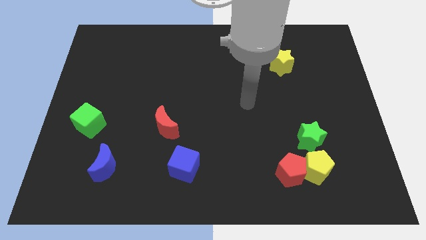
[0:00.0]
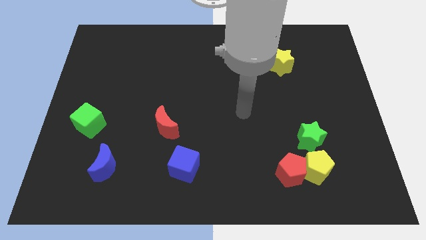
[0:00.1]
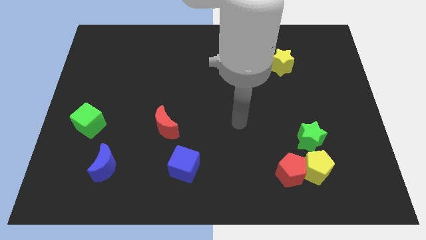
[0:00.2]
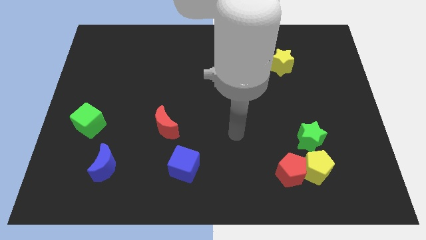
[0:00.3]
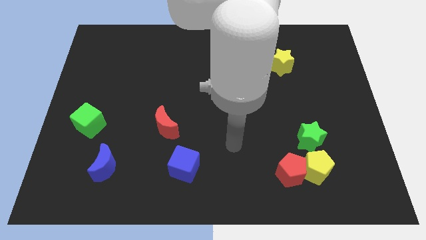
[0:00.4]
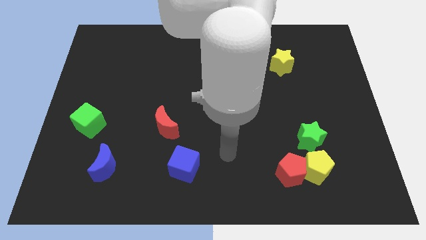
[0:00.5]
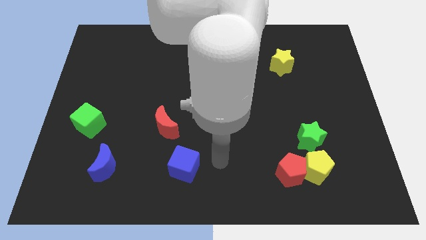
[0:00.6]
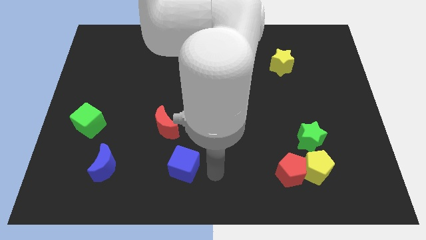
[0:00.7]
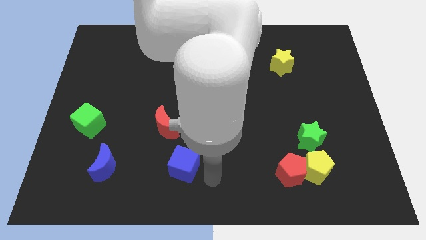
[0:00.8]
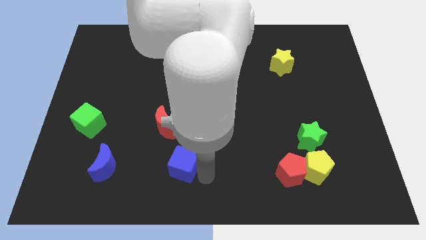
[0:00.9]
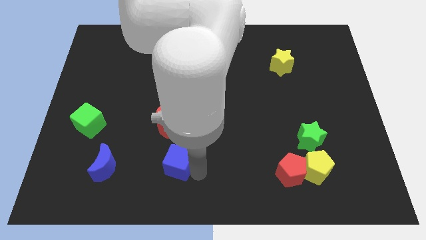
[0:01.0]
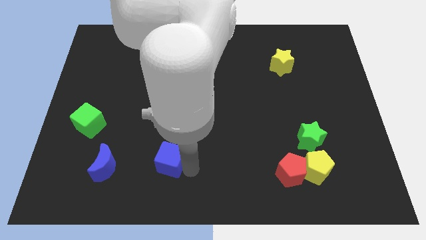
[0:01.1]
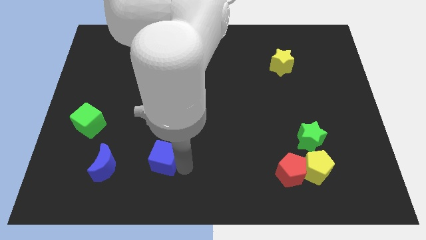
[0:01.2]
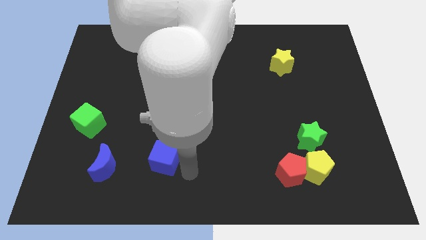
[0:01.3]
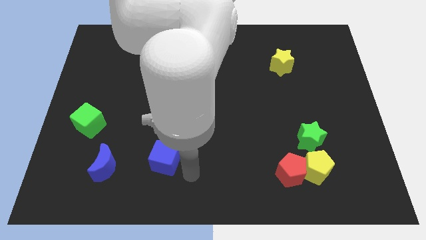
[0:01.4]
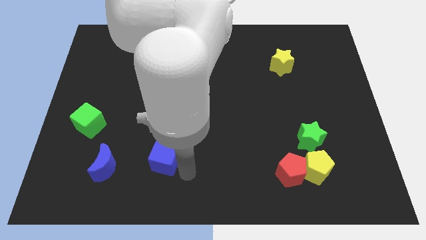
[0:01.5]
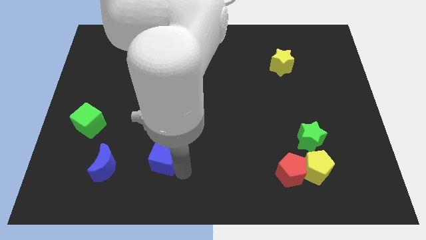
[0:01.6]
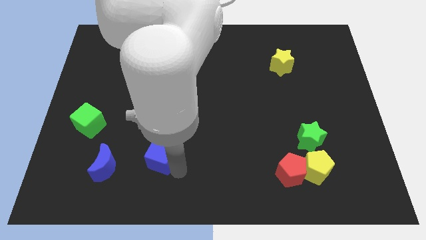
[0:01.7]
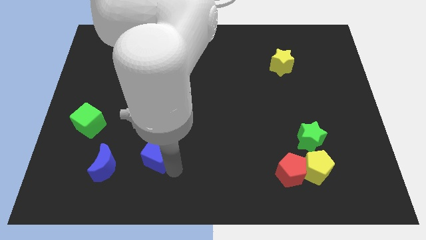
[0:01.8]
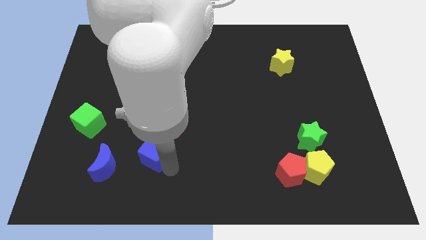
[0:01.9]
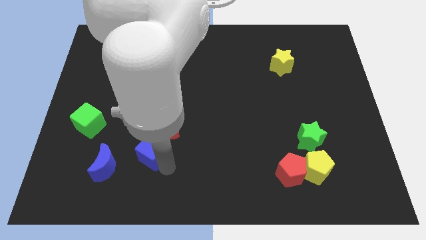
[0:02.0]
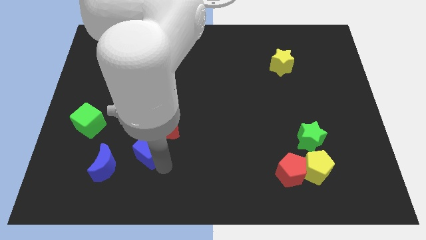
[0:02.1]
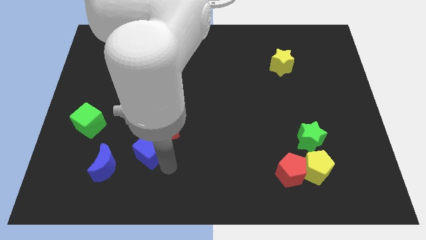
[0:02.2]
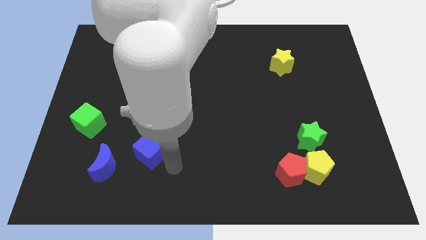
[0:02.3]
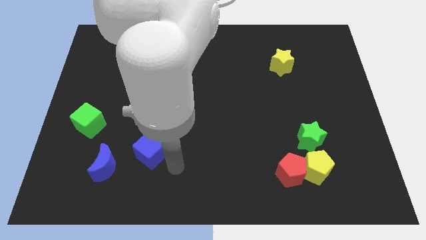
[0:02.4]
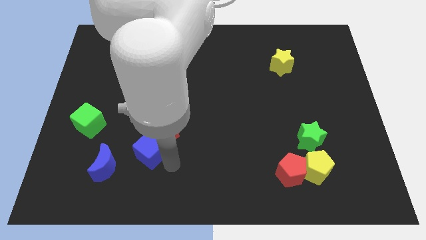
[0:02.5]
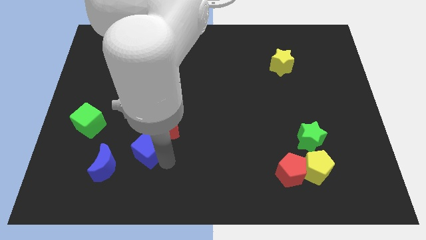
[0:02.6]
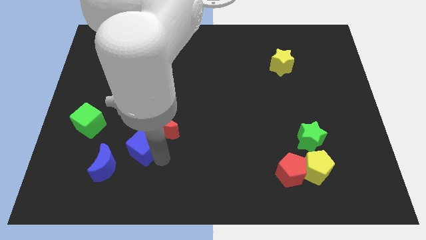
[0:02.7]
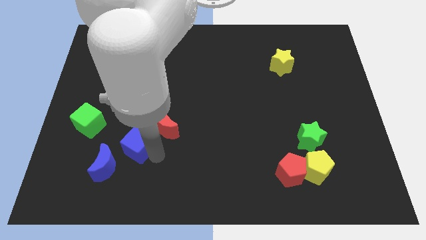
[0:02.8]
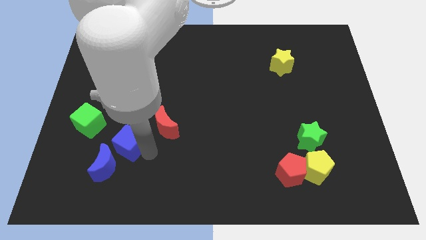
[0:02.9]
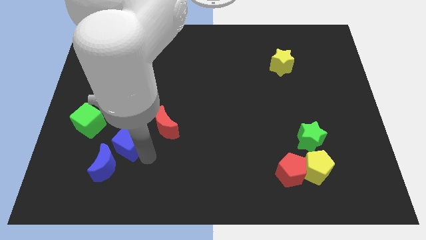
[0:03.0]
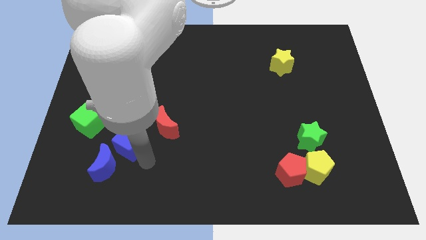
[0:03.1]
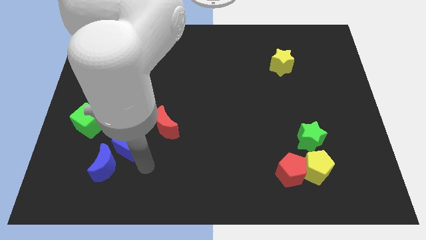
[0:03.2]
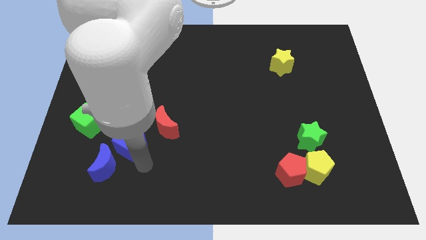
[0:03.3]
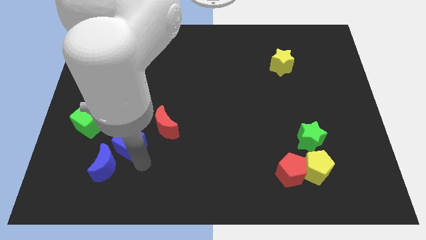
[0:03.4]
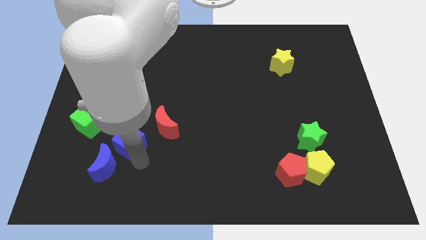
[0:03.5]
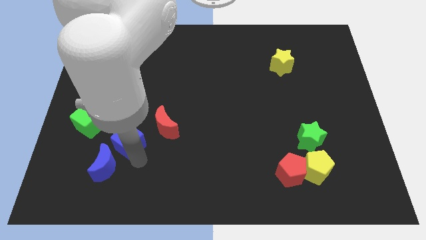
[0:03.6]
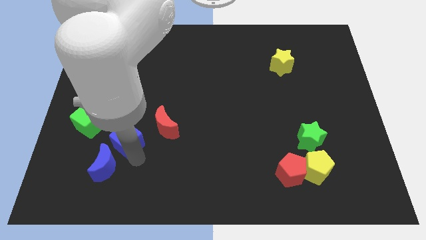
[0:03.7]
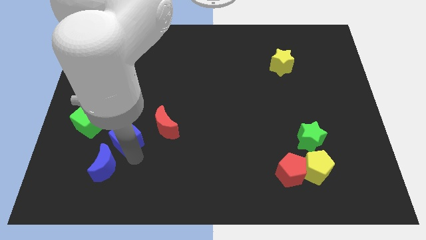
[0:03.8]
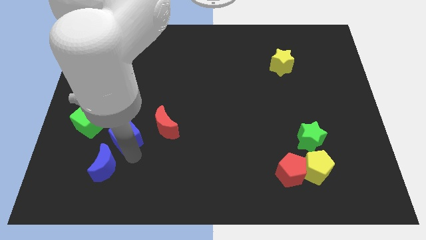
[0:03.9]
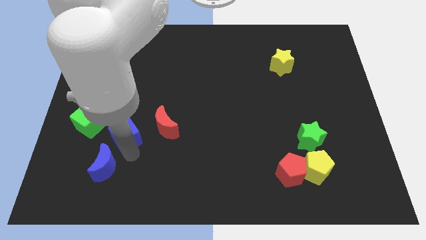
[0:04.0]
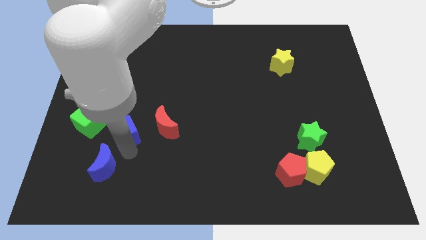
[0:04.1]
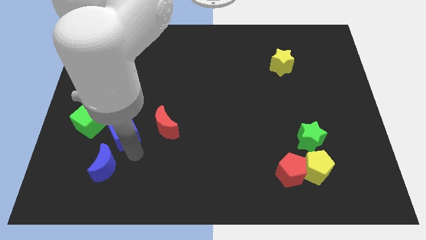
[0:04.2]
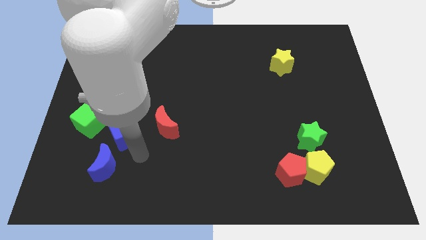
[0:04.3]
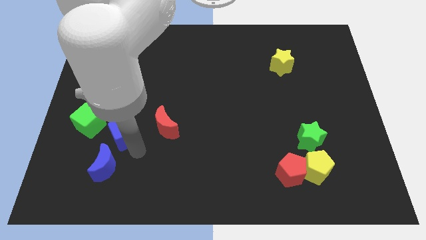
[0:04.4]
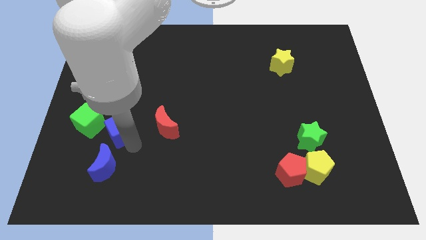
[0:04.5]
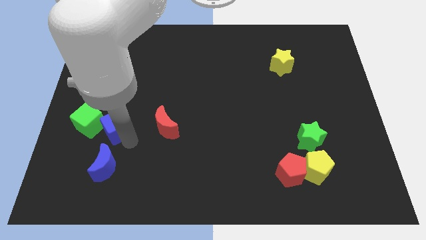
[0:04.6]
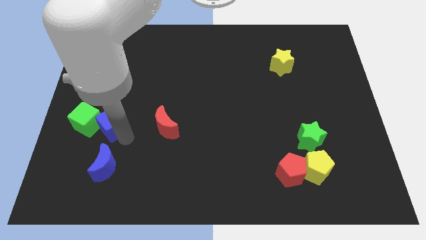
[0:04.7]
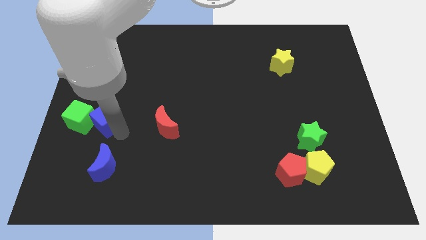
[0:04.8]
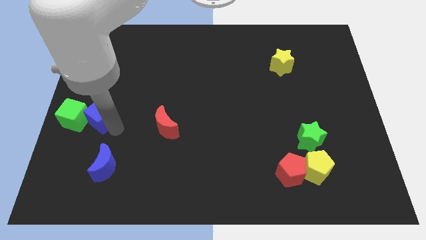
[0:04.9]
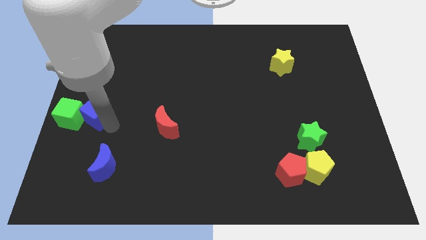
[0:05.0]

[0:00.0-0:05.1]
put the blue cube to the left side of the board

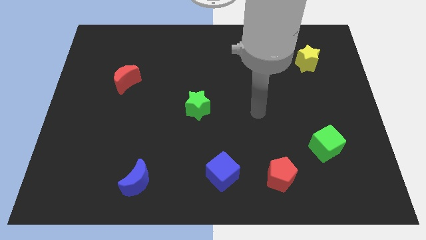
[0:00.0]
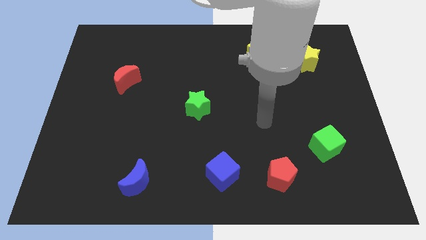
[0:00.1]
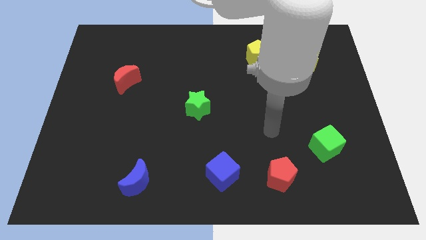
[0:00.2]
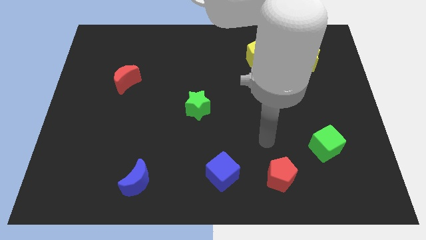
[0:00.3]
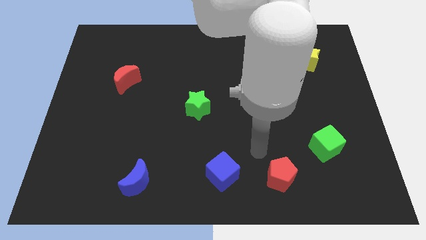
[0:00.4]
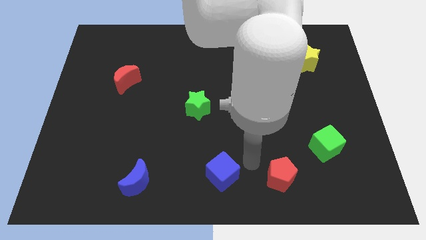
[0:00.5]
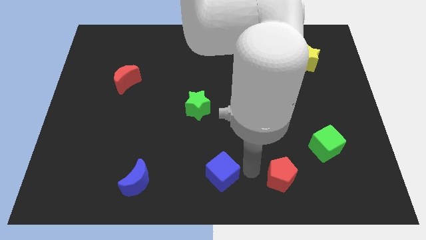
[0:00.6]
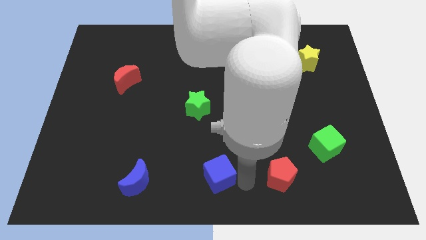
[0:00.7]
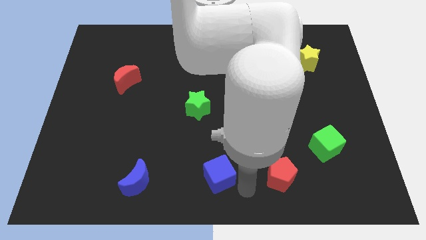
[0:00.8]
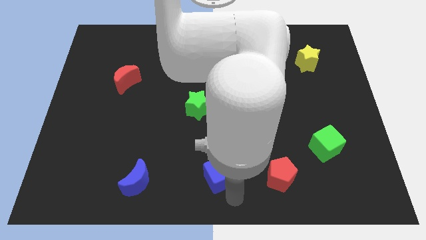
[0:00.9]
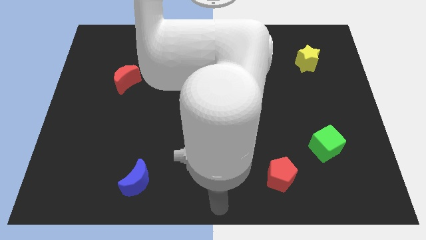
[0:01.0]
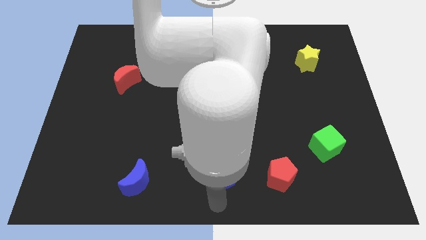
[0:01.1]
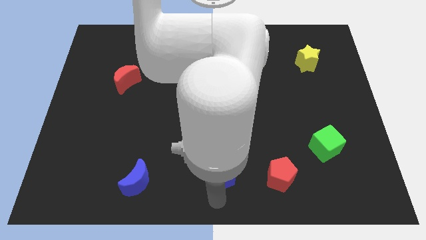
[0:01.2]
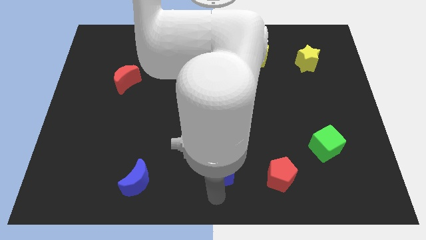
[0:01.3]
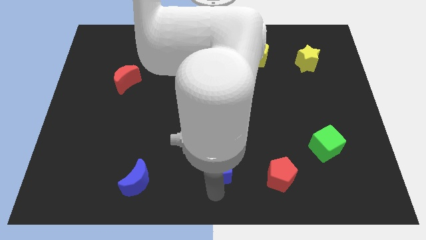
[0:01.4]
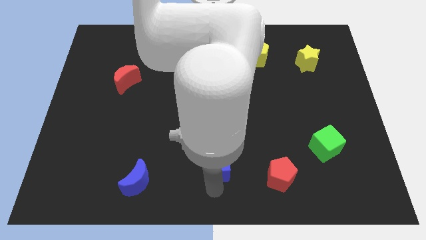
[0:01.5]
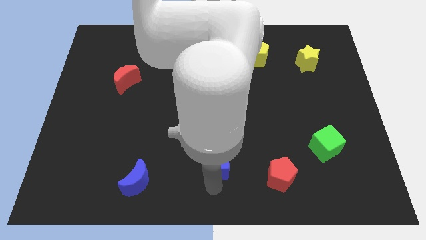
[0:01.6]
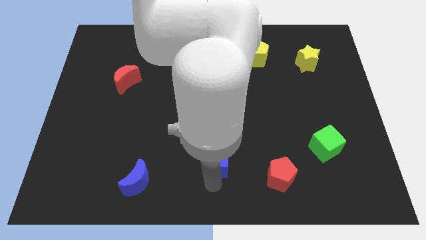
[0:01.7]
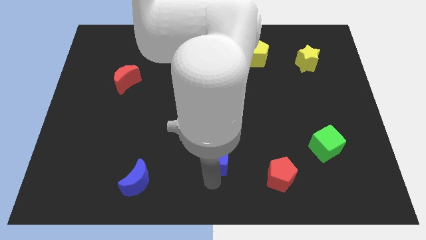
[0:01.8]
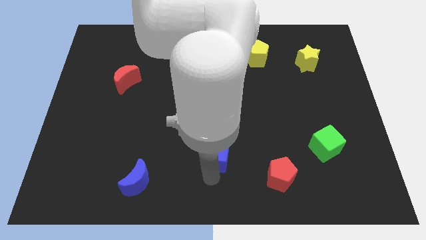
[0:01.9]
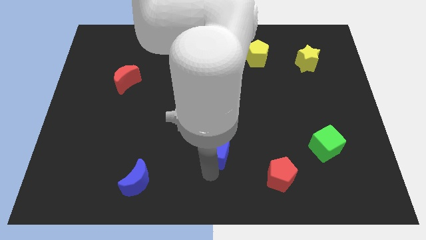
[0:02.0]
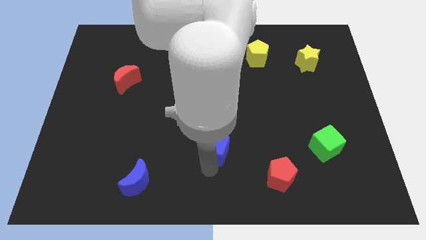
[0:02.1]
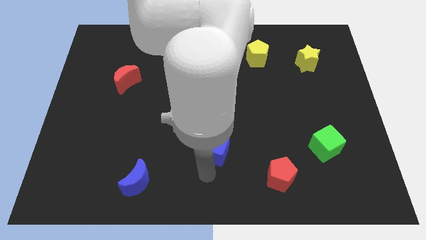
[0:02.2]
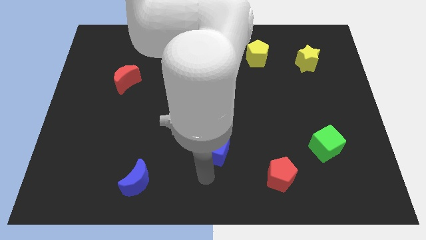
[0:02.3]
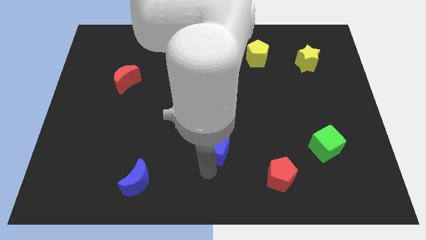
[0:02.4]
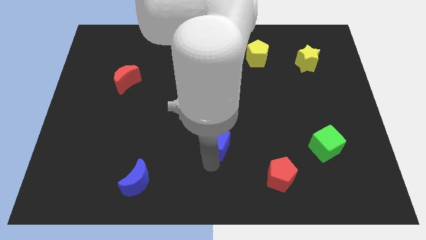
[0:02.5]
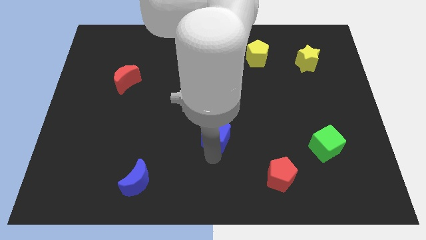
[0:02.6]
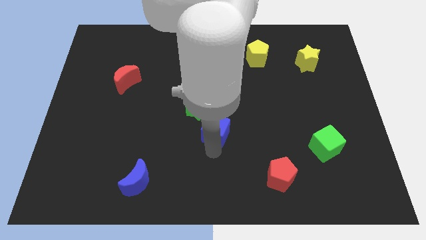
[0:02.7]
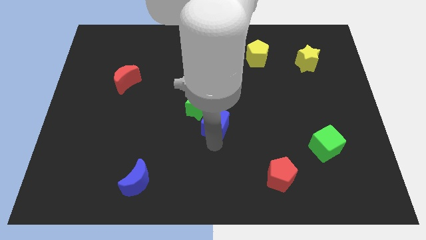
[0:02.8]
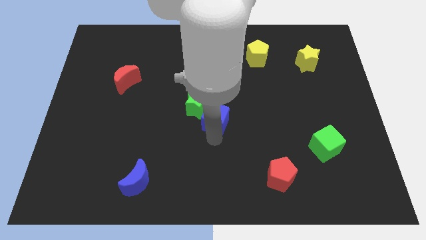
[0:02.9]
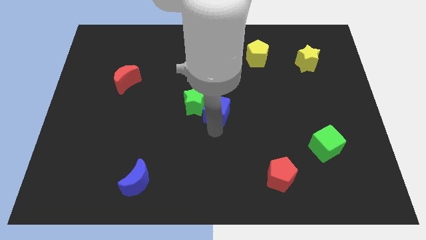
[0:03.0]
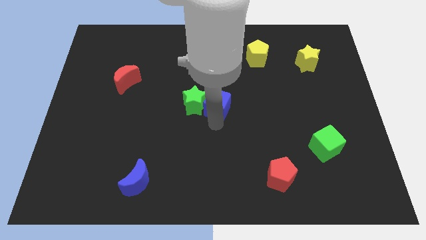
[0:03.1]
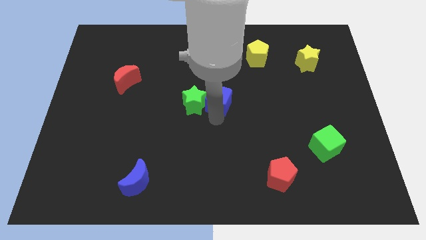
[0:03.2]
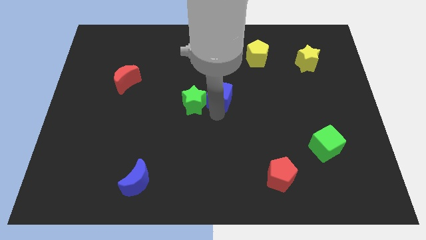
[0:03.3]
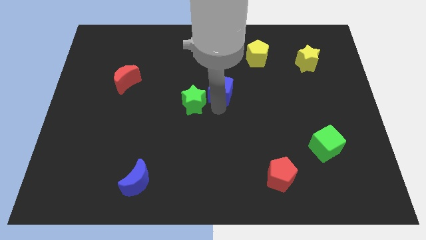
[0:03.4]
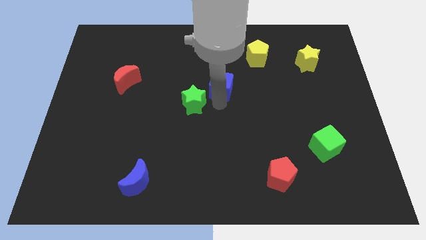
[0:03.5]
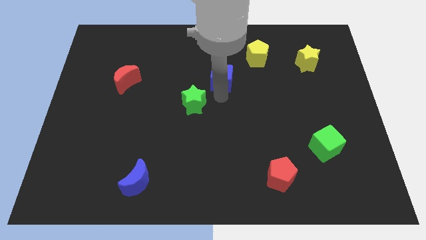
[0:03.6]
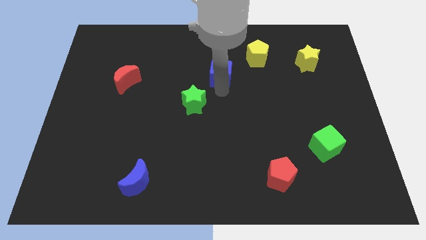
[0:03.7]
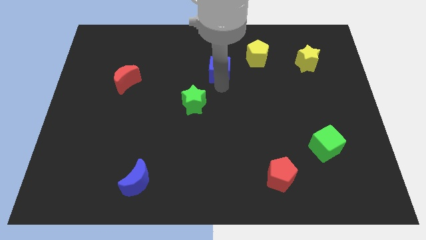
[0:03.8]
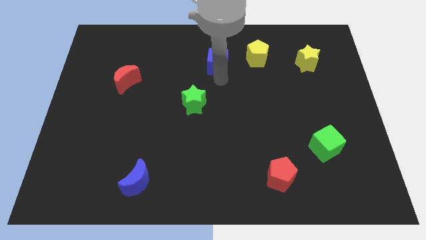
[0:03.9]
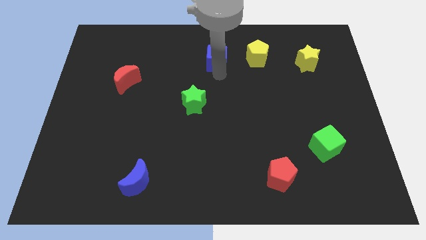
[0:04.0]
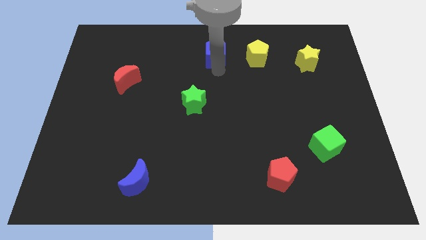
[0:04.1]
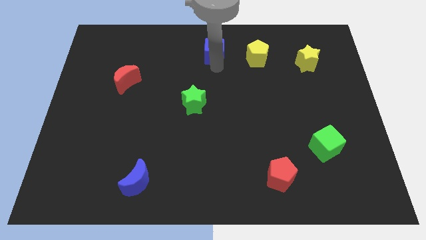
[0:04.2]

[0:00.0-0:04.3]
put the blue cube to the top
